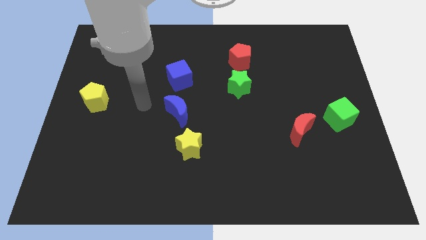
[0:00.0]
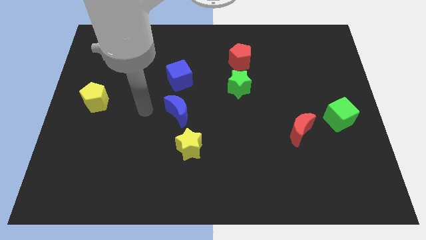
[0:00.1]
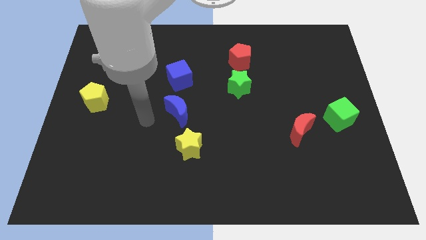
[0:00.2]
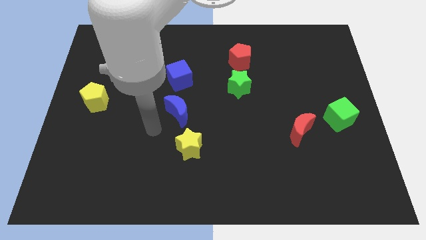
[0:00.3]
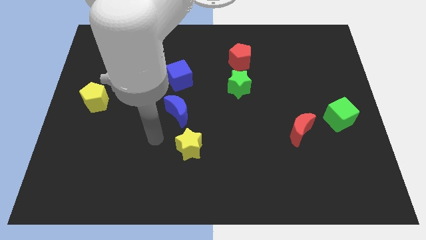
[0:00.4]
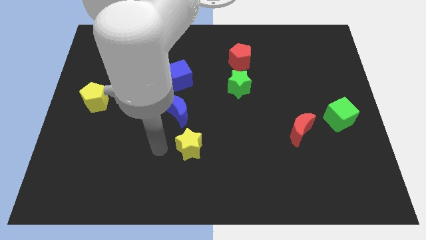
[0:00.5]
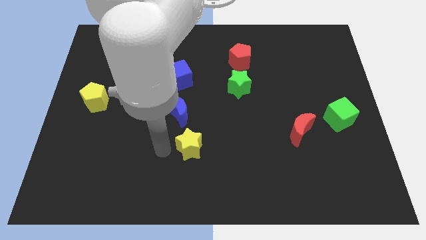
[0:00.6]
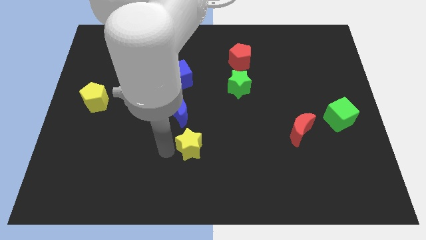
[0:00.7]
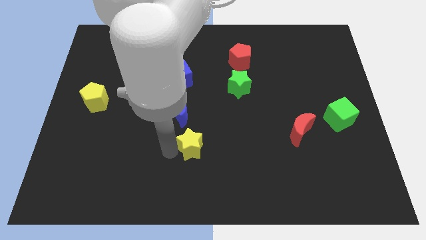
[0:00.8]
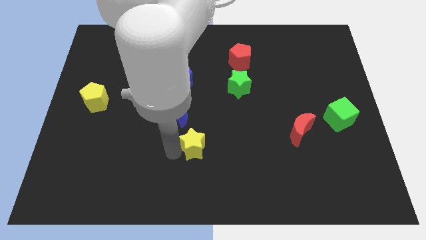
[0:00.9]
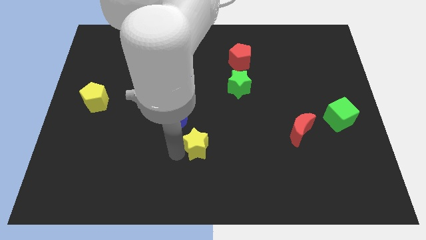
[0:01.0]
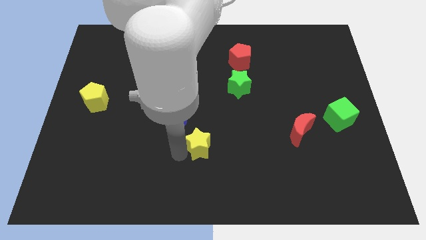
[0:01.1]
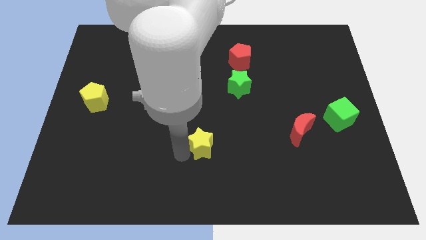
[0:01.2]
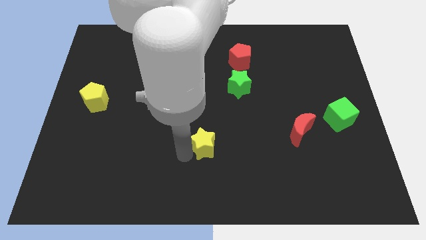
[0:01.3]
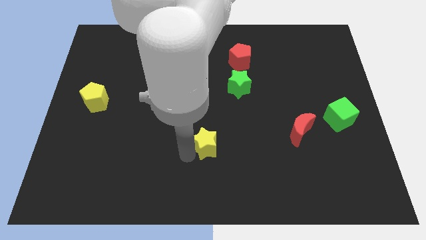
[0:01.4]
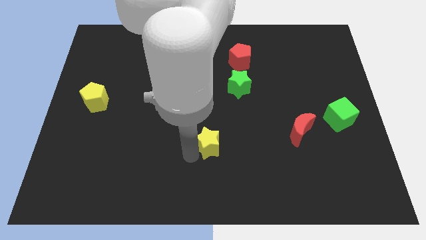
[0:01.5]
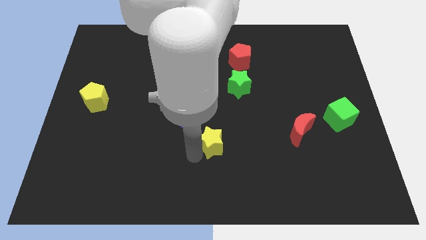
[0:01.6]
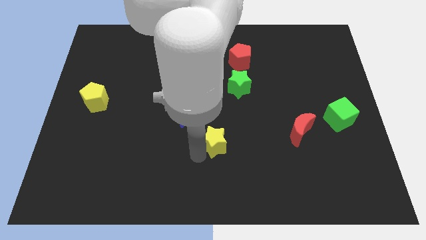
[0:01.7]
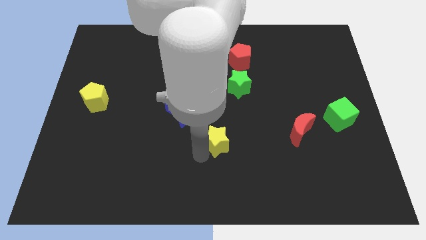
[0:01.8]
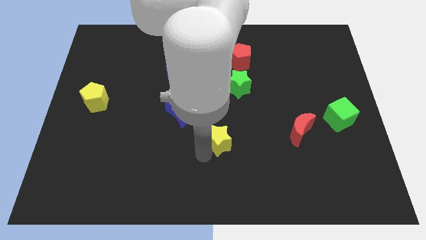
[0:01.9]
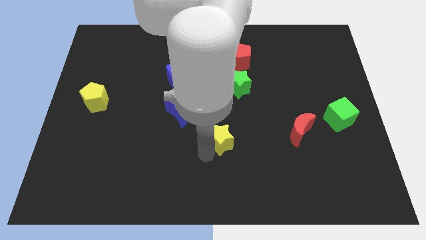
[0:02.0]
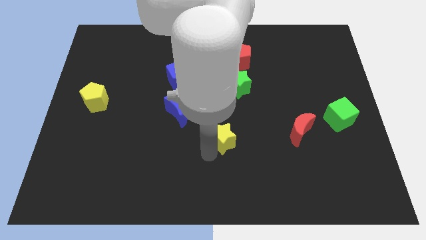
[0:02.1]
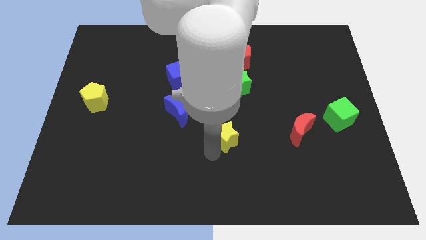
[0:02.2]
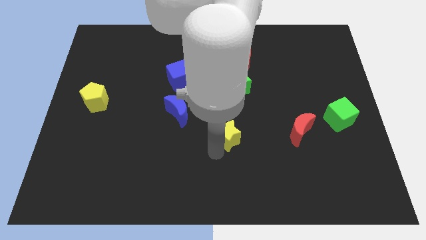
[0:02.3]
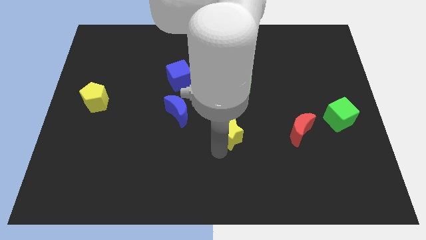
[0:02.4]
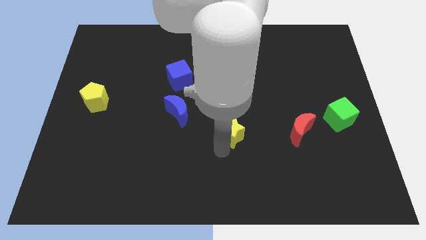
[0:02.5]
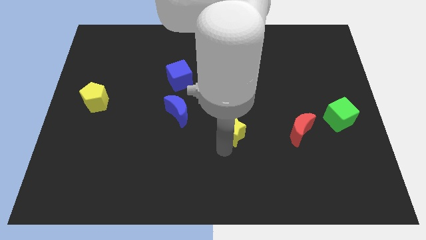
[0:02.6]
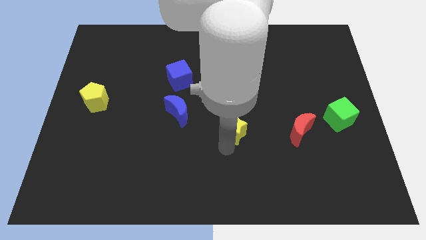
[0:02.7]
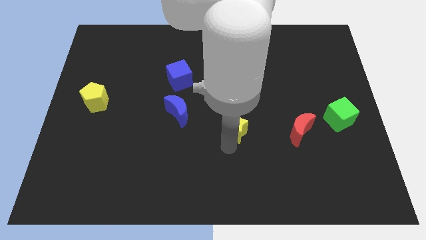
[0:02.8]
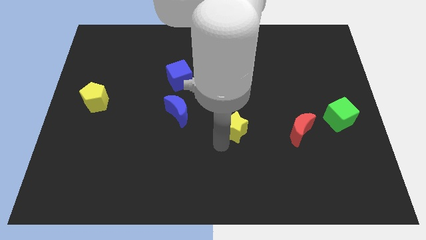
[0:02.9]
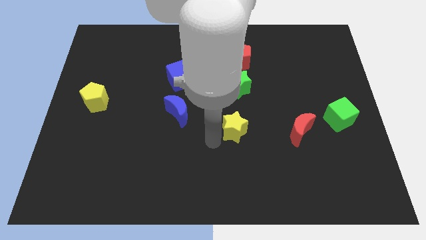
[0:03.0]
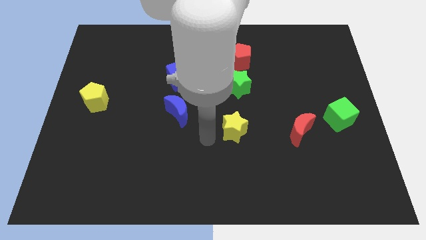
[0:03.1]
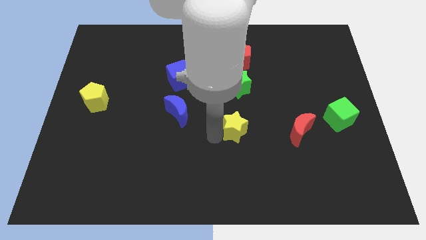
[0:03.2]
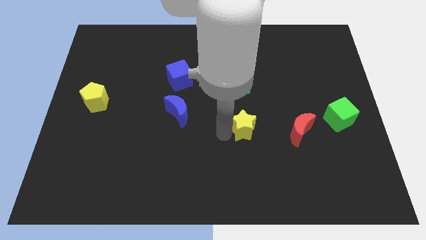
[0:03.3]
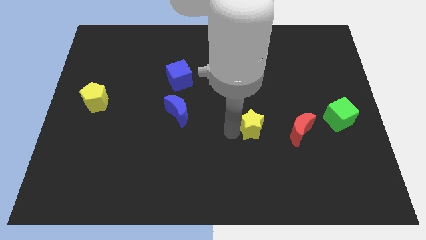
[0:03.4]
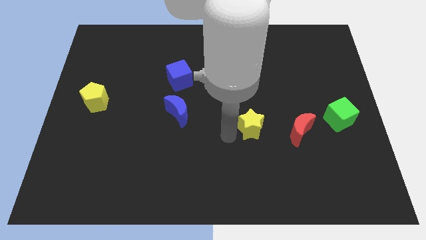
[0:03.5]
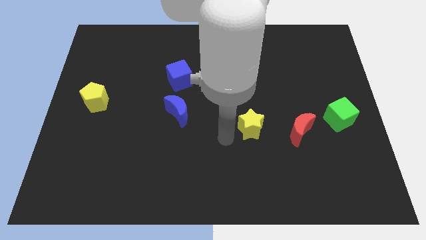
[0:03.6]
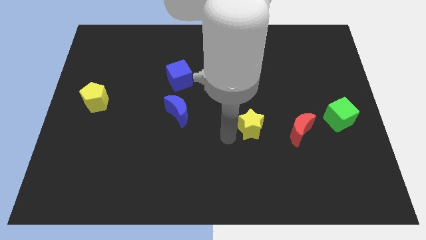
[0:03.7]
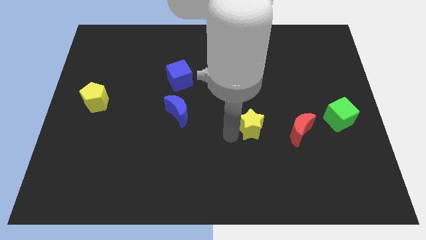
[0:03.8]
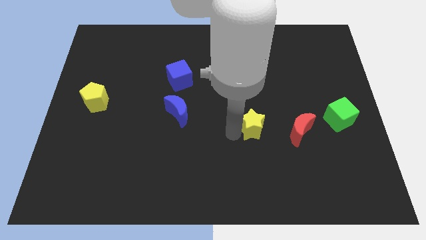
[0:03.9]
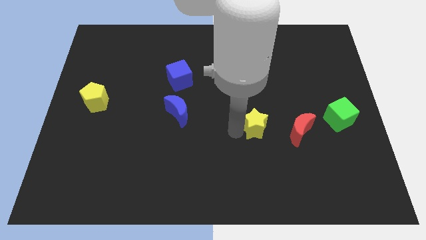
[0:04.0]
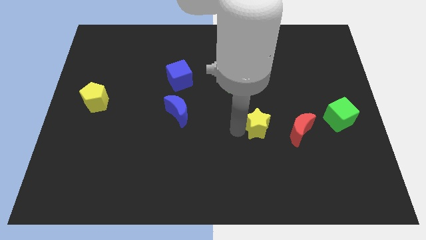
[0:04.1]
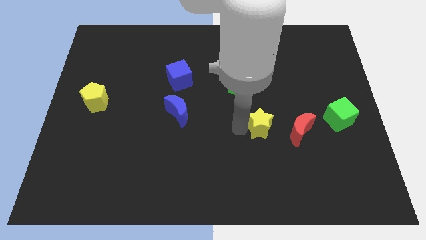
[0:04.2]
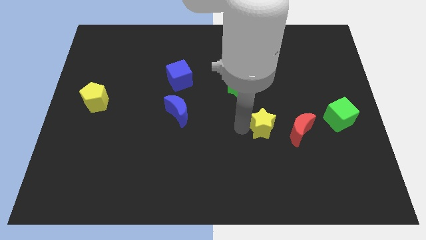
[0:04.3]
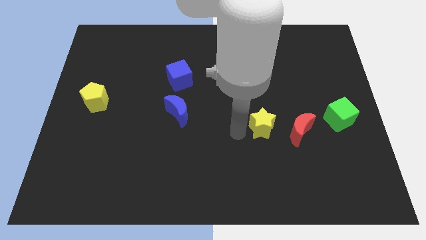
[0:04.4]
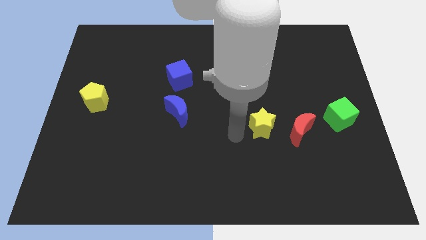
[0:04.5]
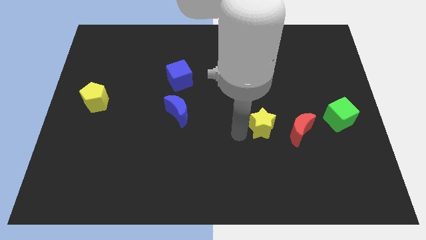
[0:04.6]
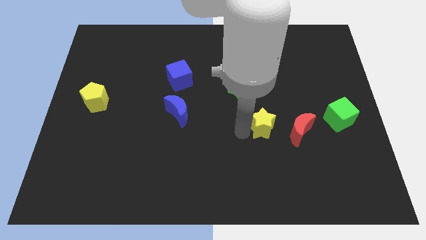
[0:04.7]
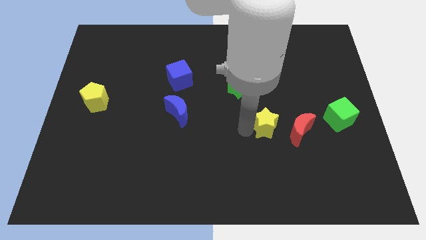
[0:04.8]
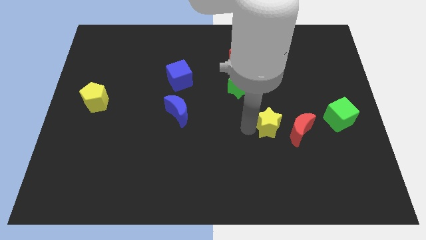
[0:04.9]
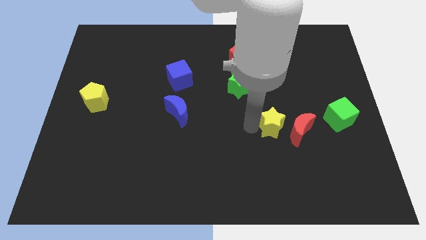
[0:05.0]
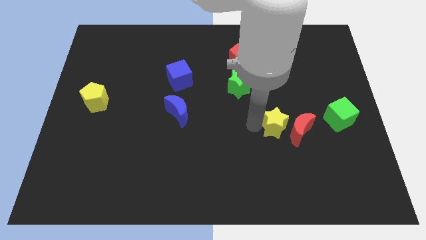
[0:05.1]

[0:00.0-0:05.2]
move the yellow star left of the green cube

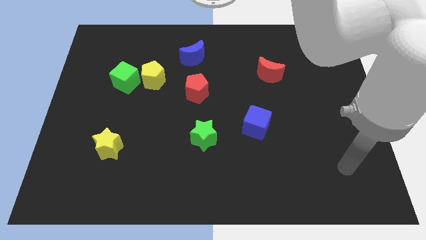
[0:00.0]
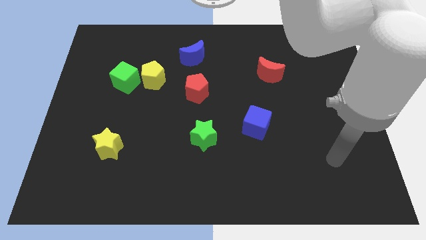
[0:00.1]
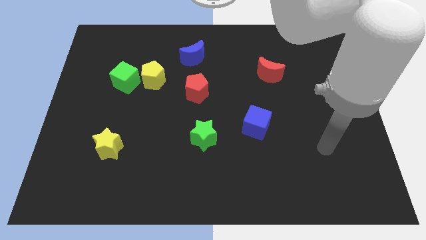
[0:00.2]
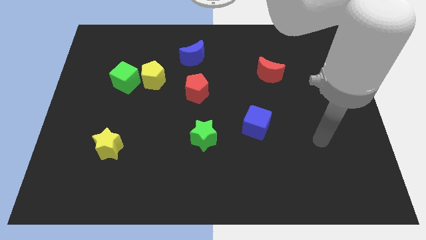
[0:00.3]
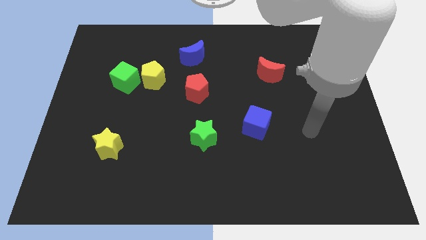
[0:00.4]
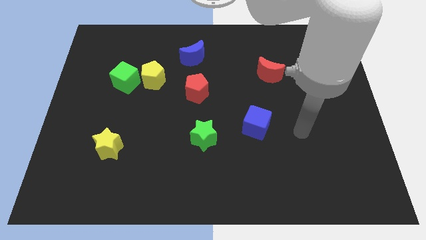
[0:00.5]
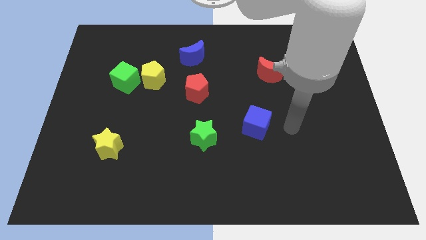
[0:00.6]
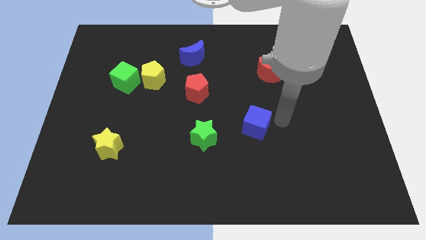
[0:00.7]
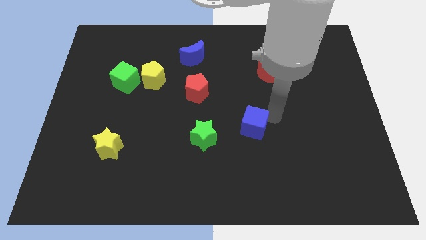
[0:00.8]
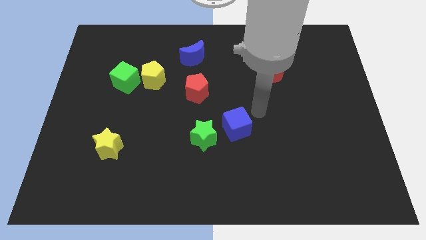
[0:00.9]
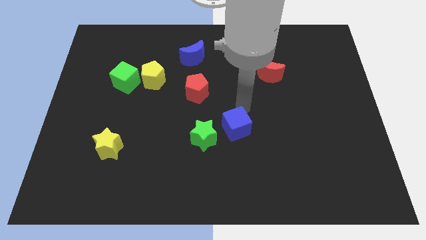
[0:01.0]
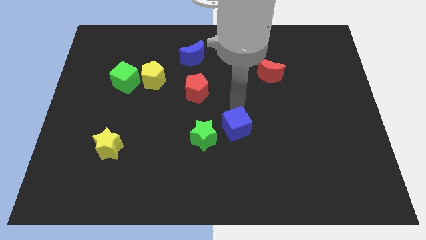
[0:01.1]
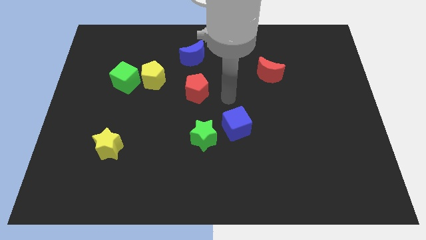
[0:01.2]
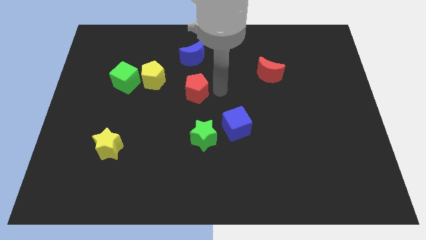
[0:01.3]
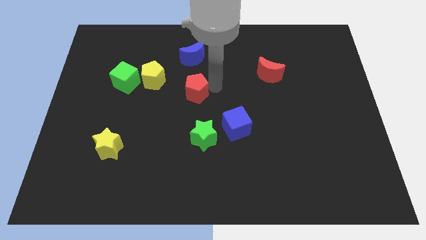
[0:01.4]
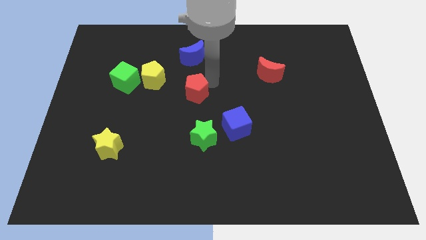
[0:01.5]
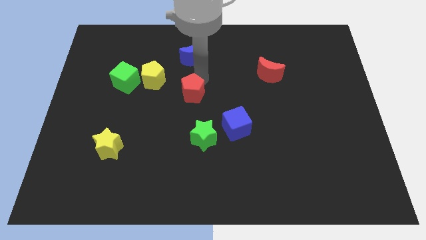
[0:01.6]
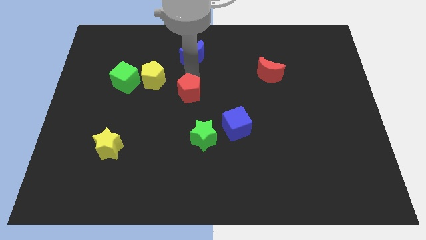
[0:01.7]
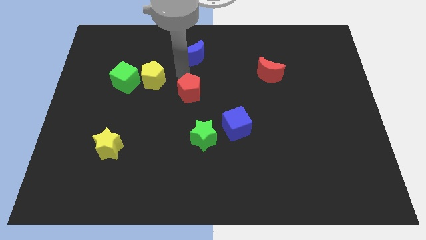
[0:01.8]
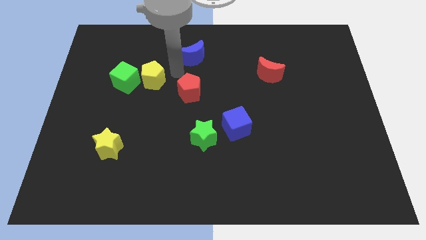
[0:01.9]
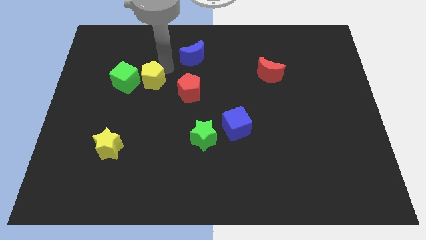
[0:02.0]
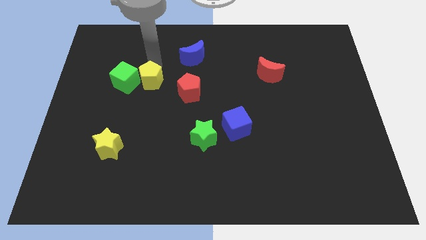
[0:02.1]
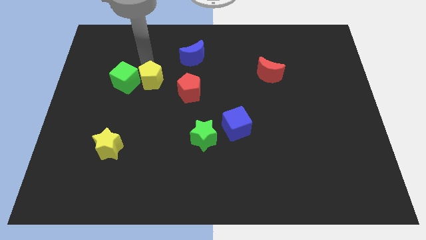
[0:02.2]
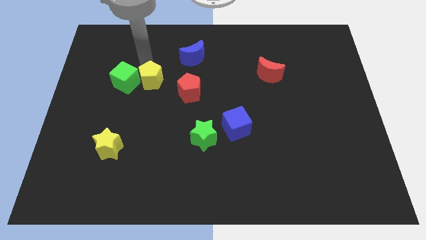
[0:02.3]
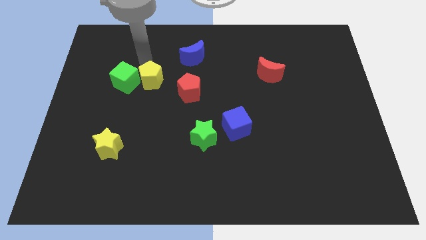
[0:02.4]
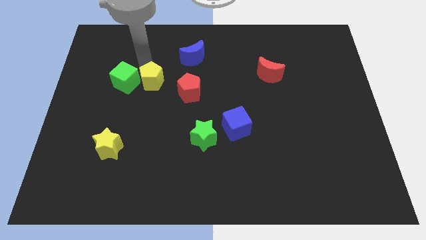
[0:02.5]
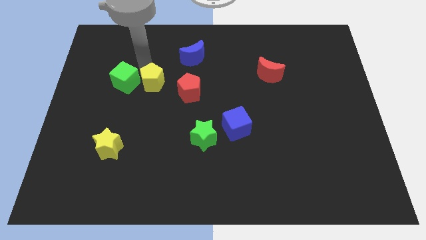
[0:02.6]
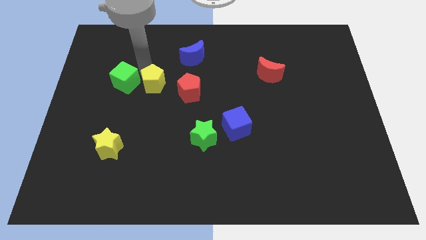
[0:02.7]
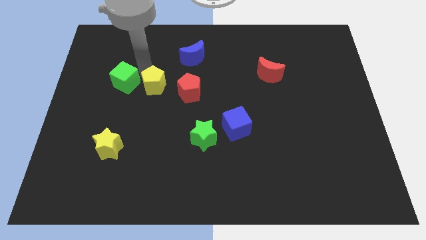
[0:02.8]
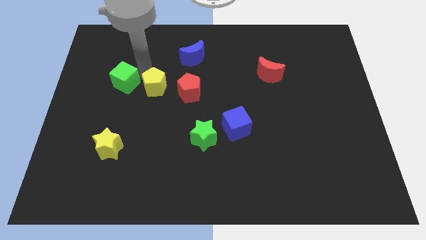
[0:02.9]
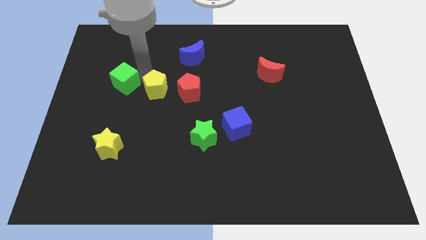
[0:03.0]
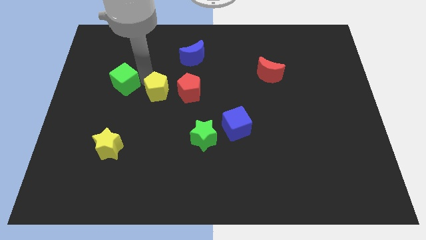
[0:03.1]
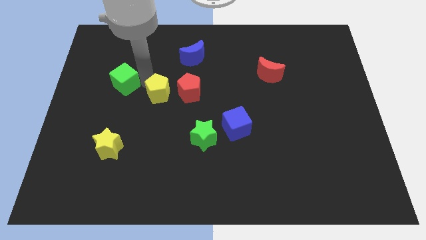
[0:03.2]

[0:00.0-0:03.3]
push the yellow pentagon diagonally down and to the left of the red pentagon
